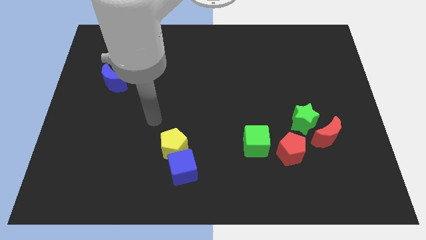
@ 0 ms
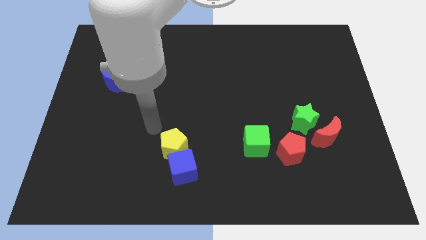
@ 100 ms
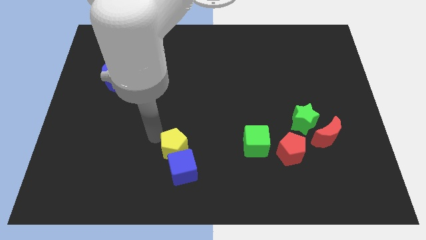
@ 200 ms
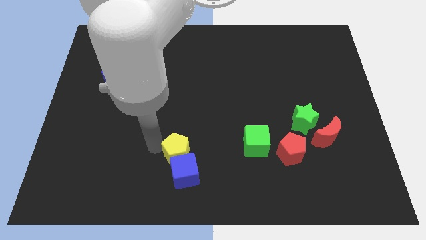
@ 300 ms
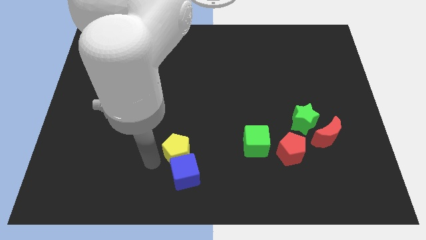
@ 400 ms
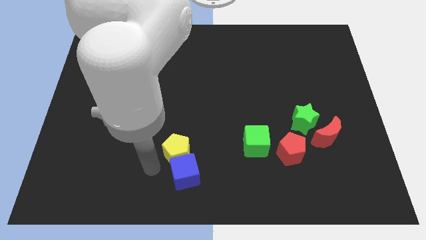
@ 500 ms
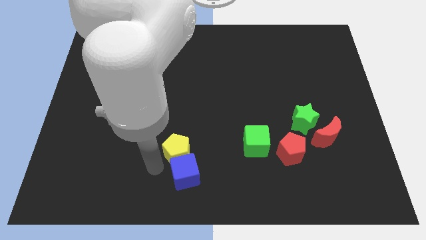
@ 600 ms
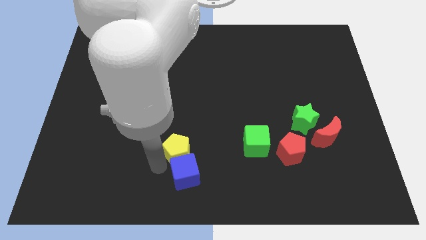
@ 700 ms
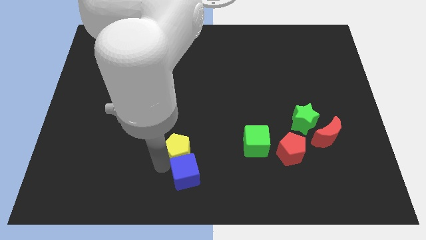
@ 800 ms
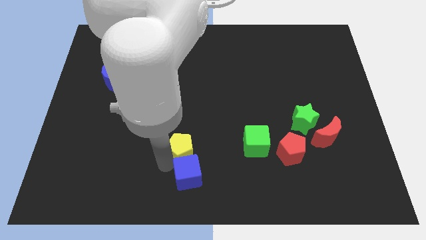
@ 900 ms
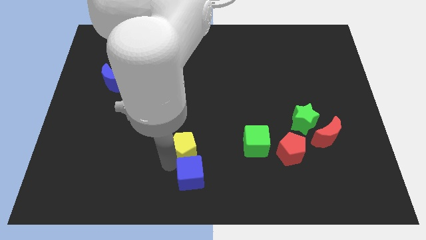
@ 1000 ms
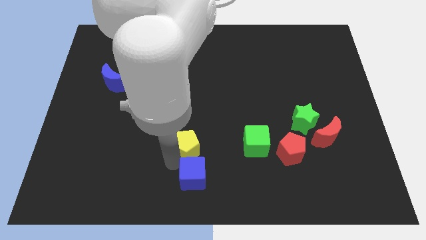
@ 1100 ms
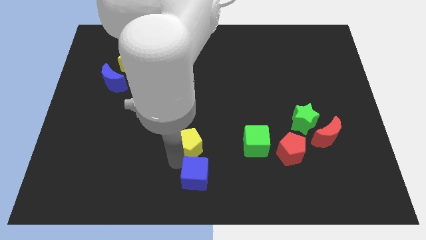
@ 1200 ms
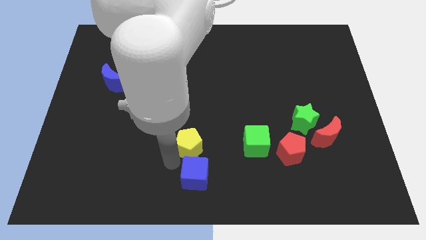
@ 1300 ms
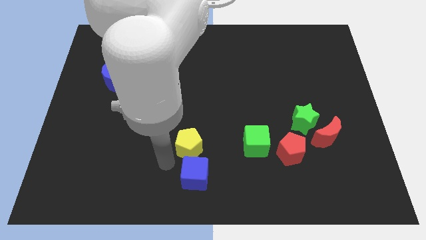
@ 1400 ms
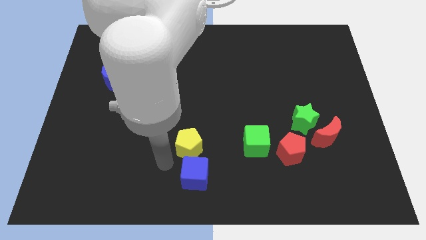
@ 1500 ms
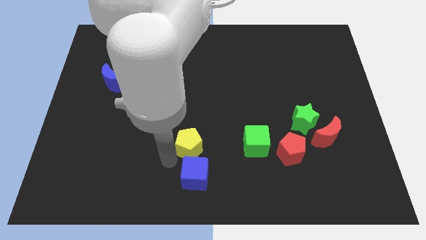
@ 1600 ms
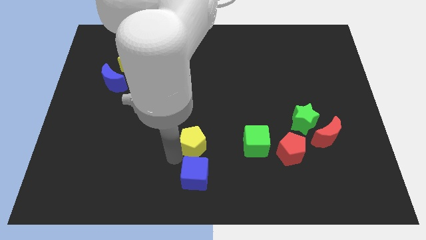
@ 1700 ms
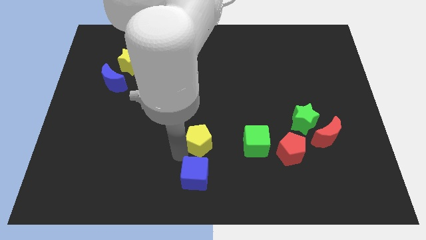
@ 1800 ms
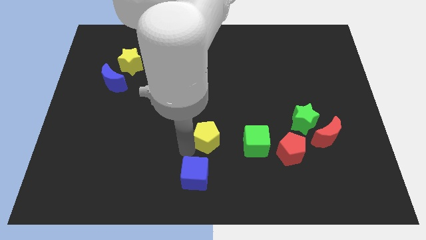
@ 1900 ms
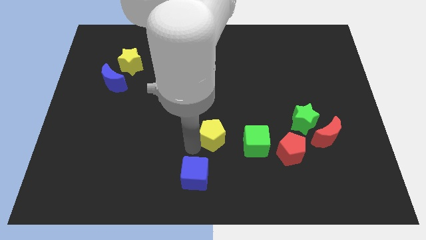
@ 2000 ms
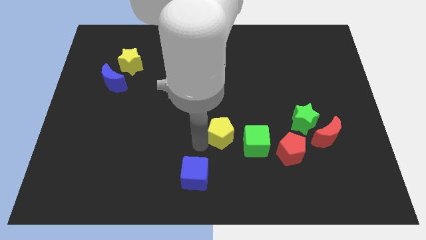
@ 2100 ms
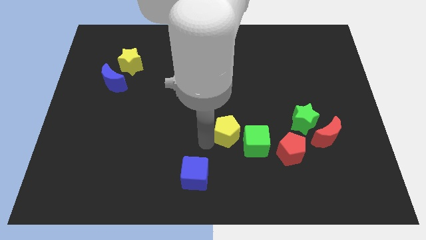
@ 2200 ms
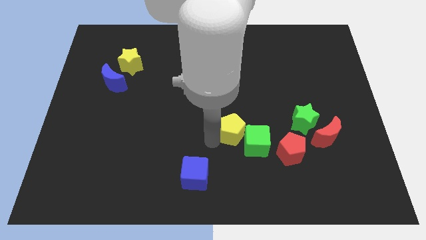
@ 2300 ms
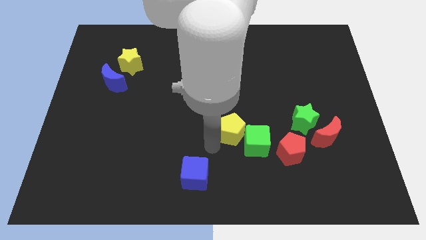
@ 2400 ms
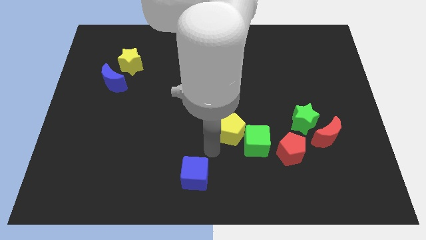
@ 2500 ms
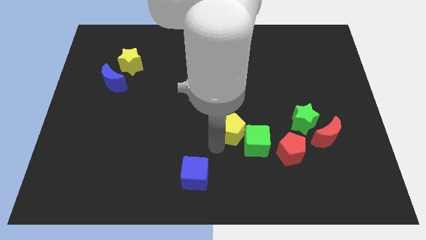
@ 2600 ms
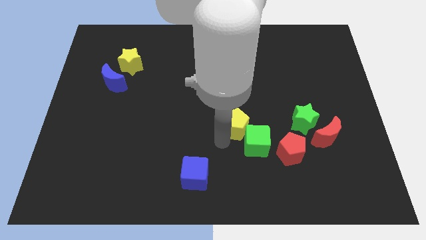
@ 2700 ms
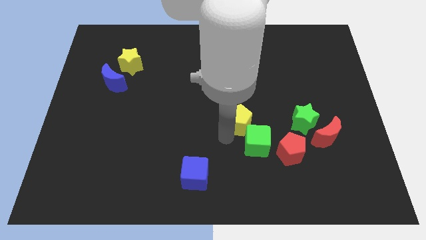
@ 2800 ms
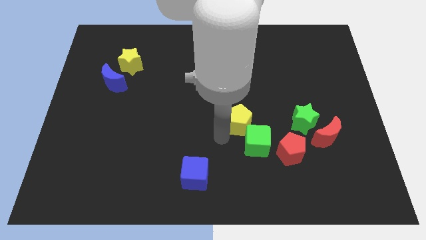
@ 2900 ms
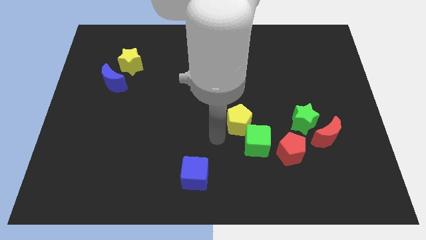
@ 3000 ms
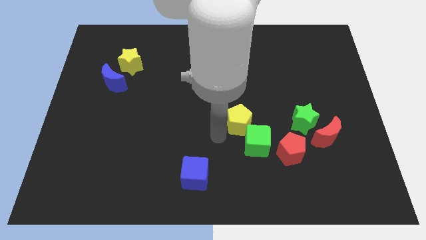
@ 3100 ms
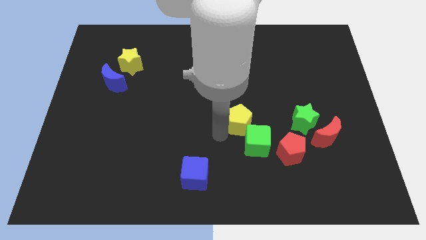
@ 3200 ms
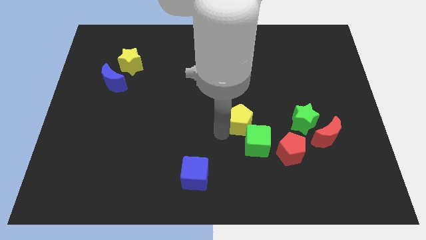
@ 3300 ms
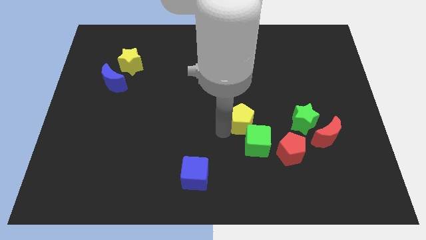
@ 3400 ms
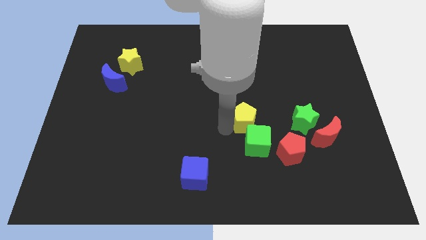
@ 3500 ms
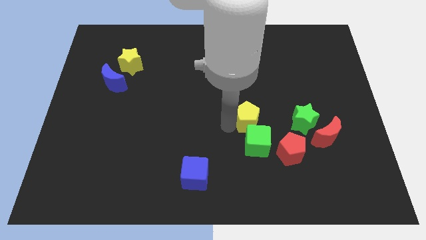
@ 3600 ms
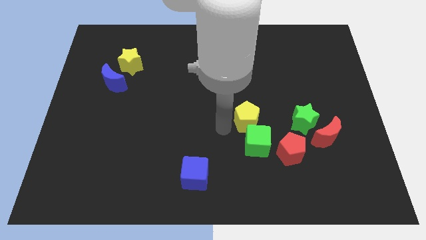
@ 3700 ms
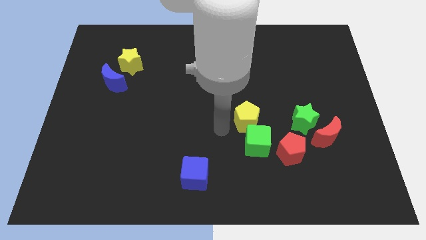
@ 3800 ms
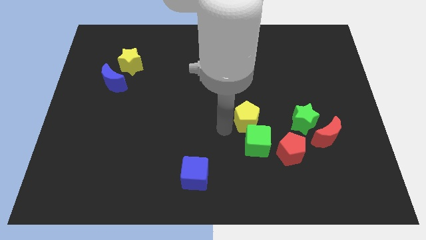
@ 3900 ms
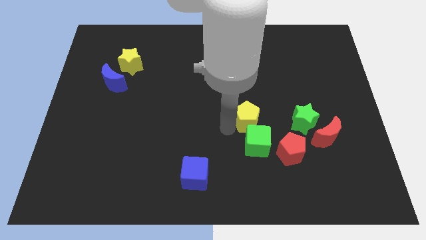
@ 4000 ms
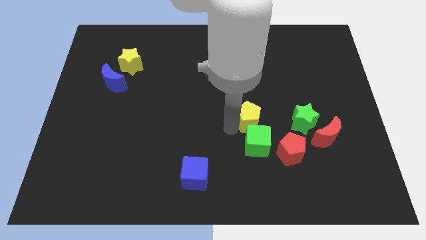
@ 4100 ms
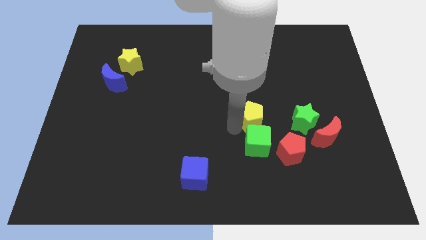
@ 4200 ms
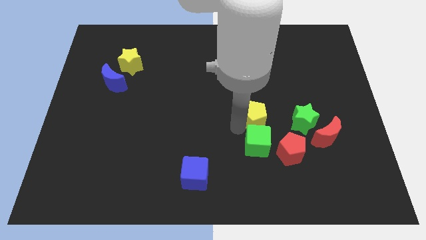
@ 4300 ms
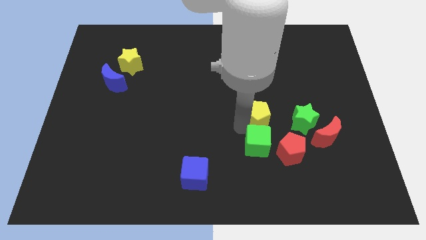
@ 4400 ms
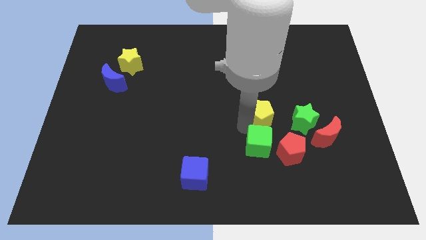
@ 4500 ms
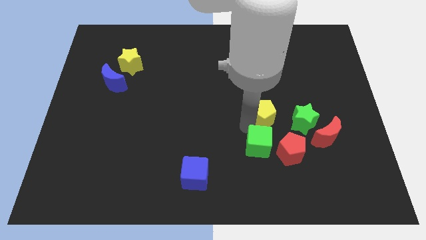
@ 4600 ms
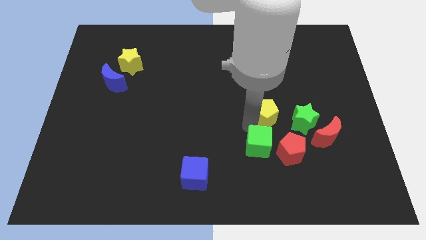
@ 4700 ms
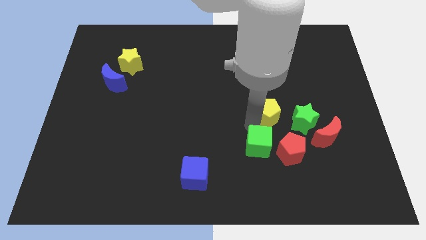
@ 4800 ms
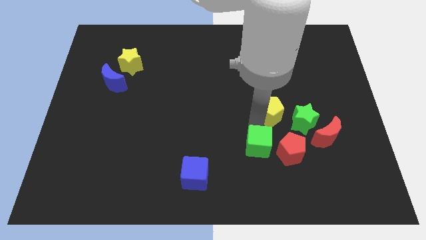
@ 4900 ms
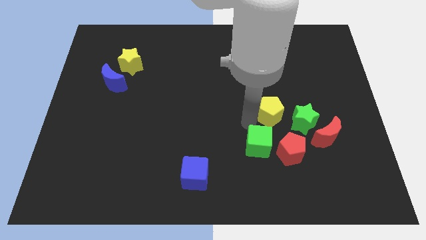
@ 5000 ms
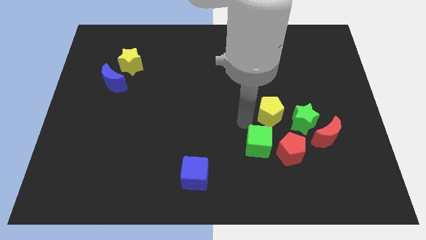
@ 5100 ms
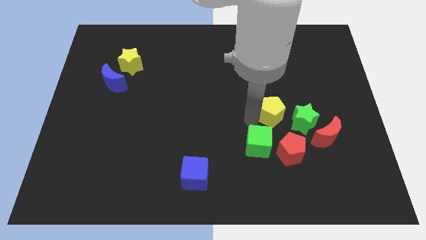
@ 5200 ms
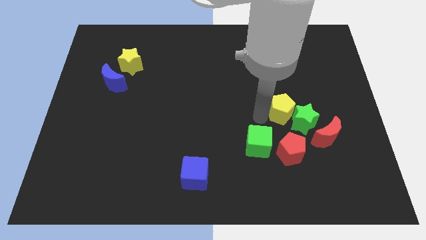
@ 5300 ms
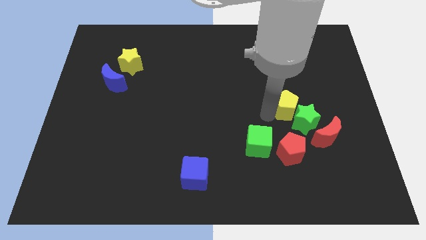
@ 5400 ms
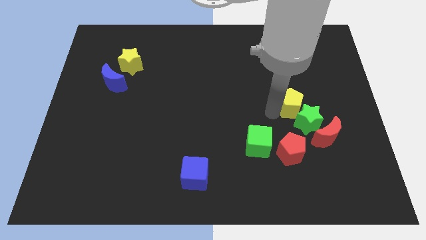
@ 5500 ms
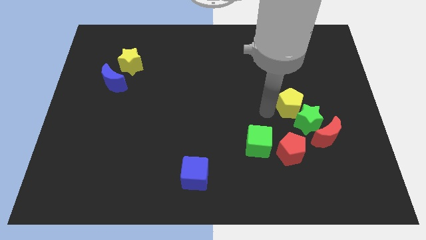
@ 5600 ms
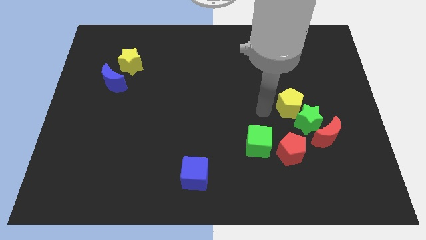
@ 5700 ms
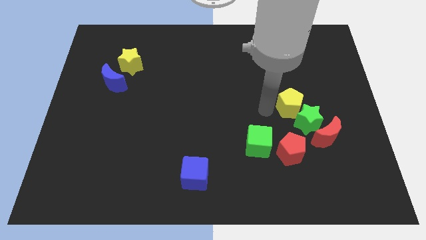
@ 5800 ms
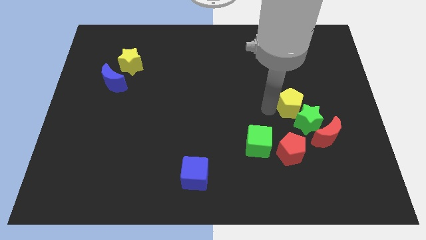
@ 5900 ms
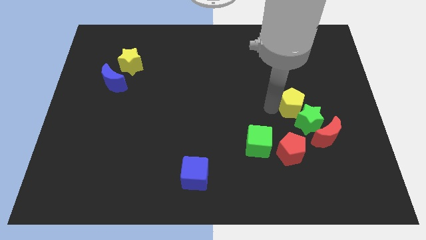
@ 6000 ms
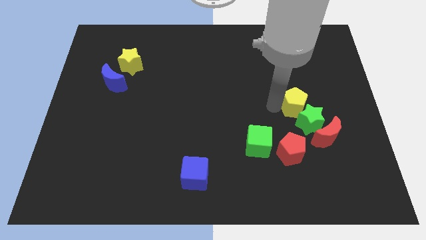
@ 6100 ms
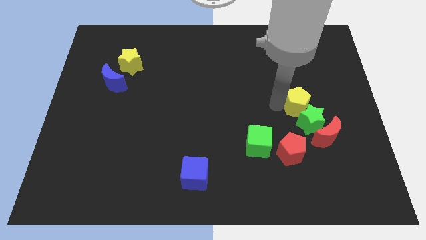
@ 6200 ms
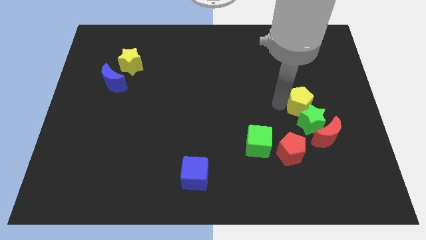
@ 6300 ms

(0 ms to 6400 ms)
put the yellow pentagon to the top side of the red moon

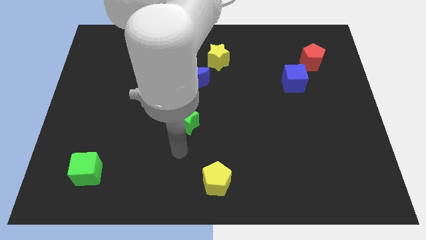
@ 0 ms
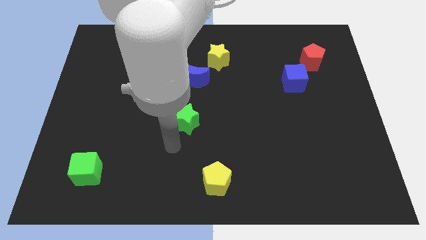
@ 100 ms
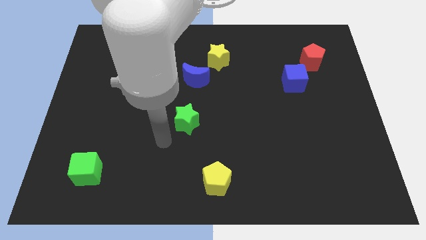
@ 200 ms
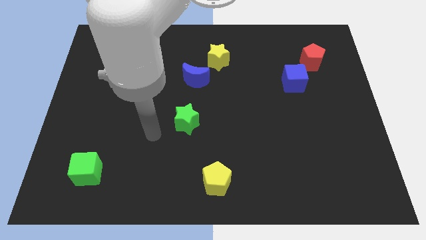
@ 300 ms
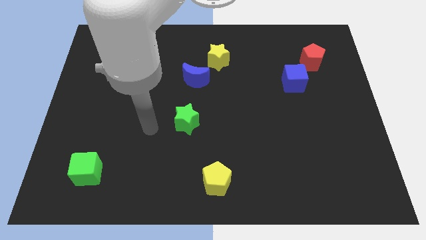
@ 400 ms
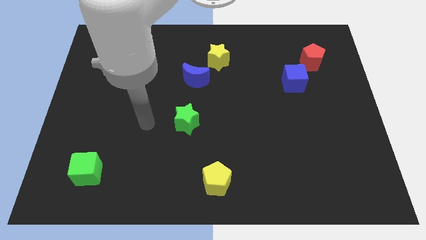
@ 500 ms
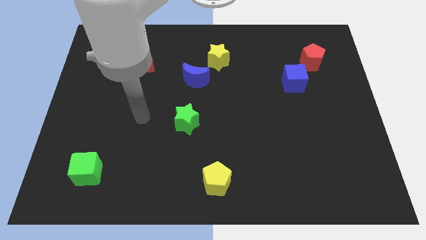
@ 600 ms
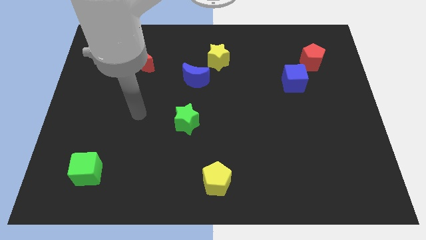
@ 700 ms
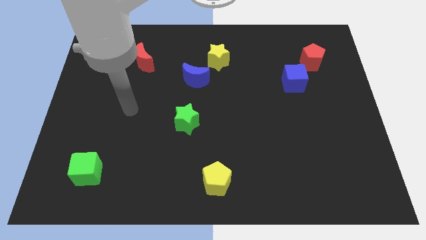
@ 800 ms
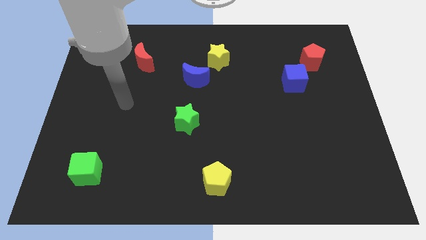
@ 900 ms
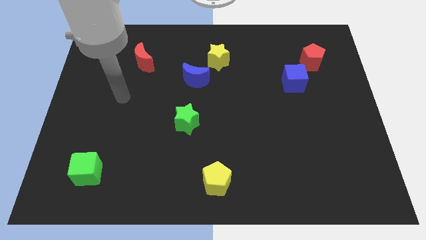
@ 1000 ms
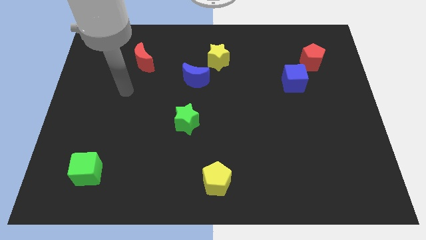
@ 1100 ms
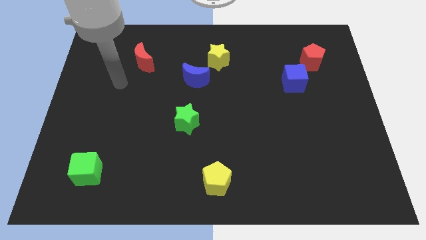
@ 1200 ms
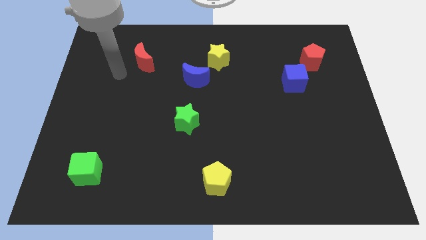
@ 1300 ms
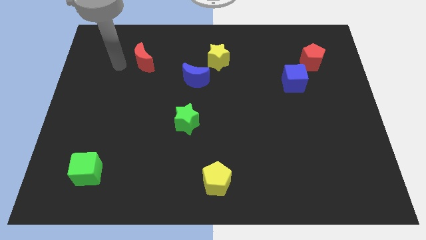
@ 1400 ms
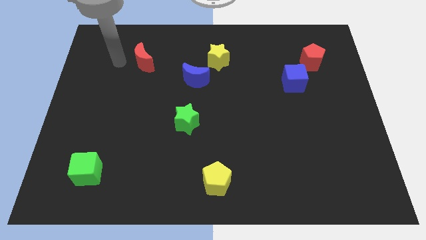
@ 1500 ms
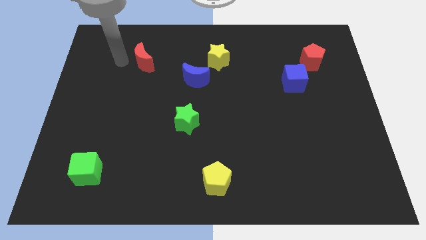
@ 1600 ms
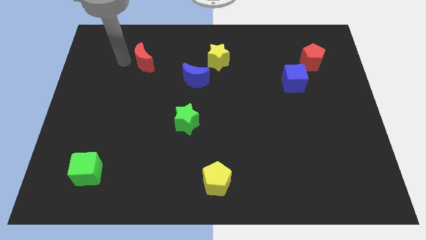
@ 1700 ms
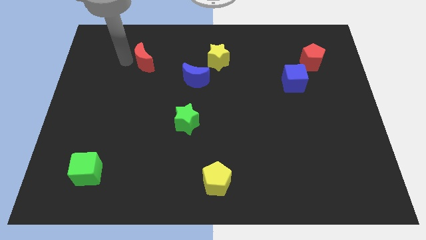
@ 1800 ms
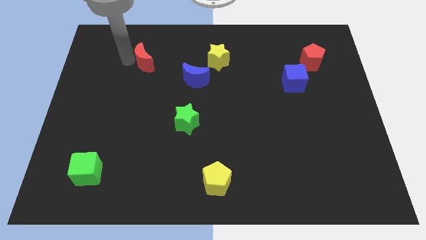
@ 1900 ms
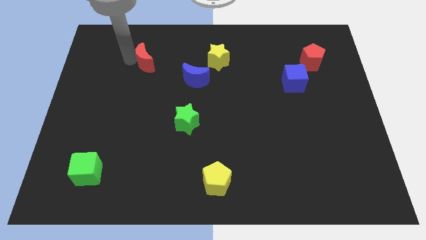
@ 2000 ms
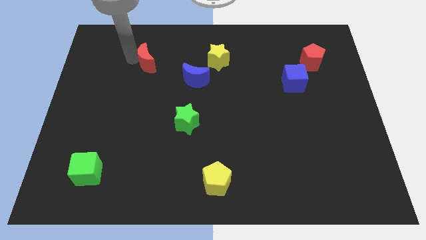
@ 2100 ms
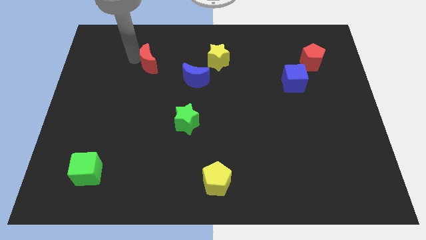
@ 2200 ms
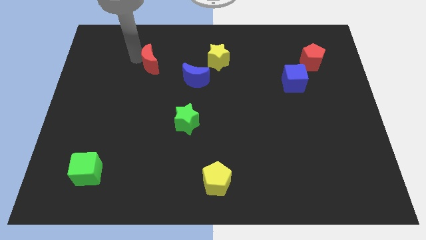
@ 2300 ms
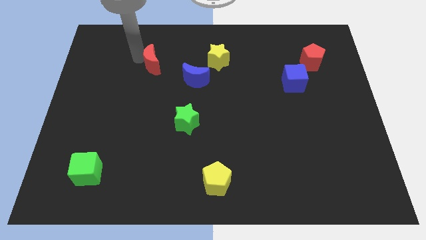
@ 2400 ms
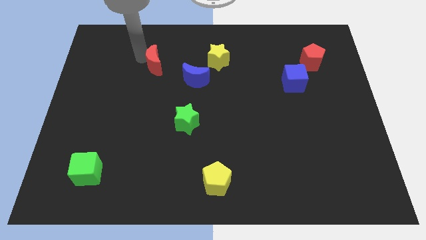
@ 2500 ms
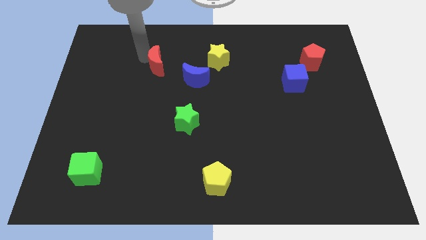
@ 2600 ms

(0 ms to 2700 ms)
slide the red moon to the top left side of the blue moon
